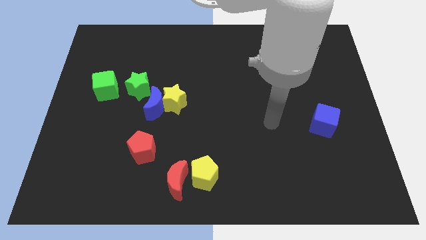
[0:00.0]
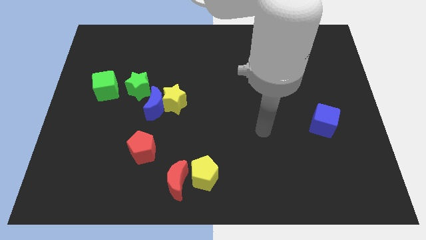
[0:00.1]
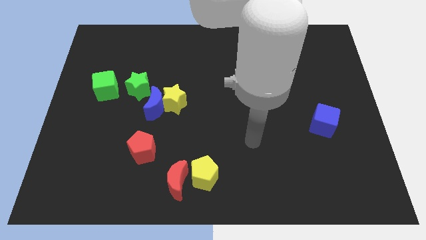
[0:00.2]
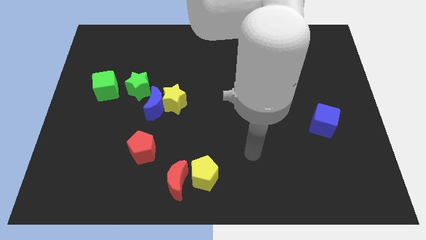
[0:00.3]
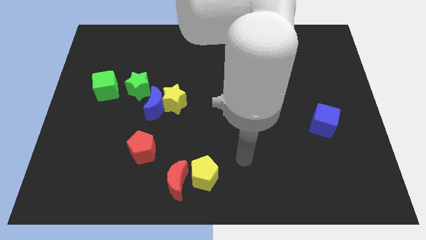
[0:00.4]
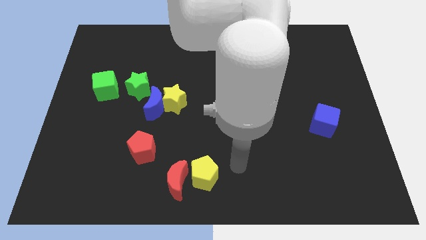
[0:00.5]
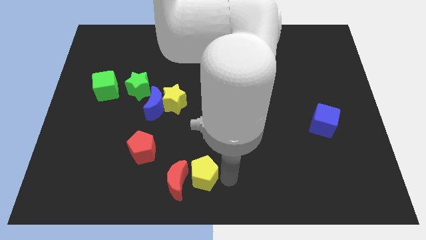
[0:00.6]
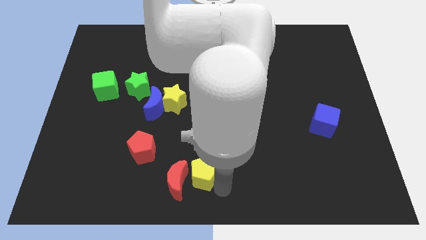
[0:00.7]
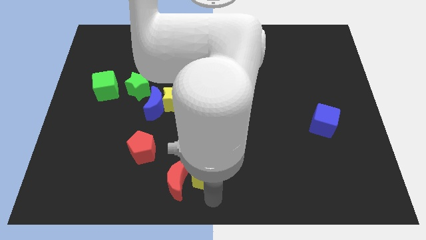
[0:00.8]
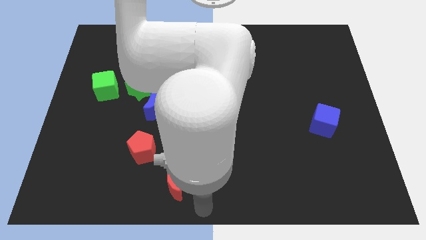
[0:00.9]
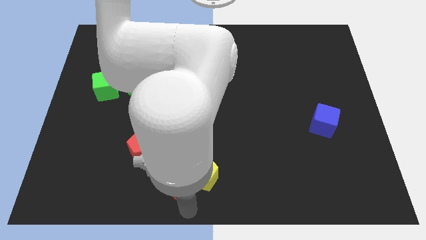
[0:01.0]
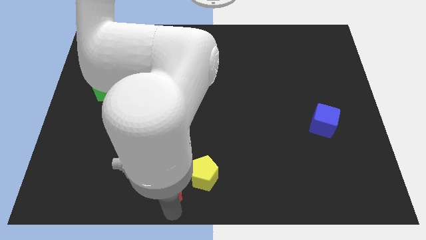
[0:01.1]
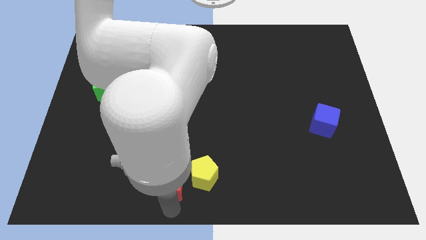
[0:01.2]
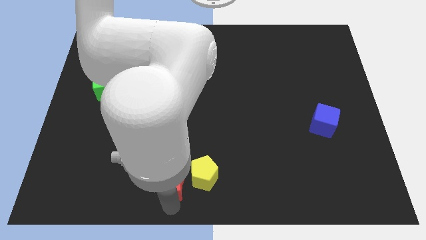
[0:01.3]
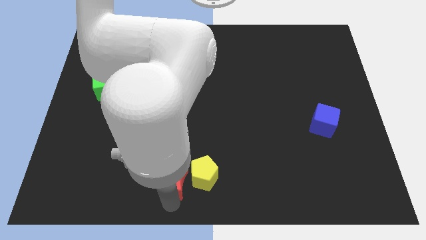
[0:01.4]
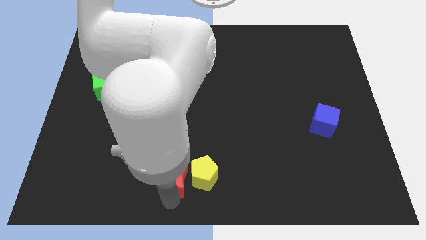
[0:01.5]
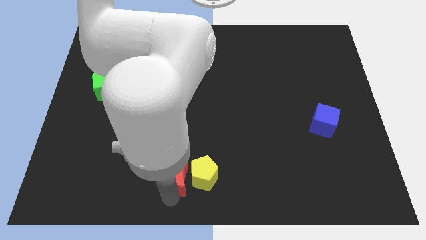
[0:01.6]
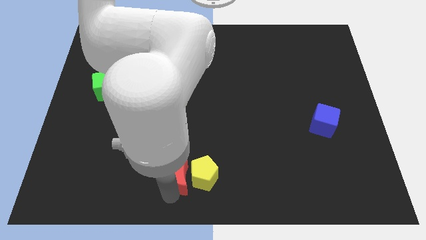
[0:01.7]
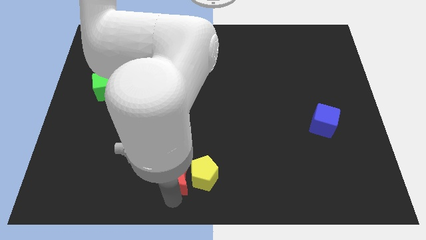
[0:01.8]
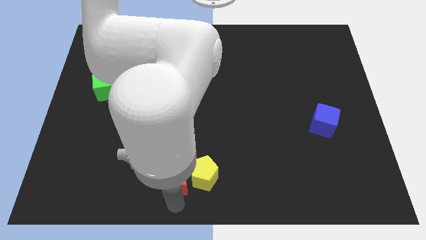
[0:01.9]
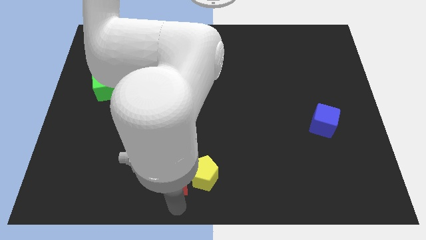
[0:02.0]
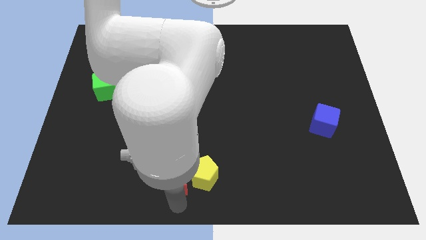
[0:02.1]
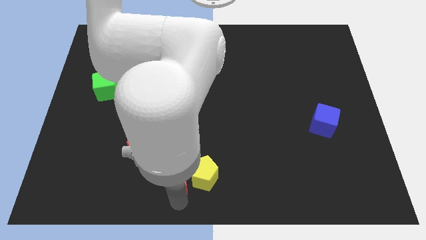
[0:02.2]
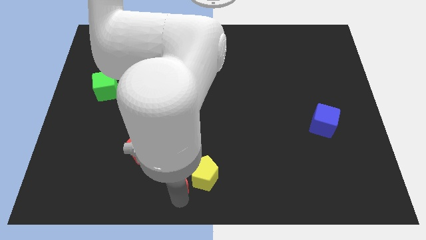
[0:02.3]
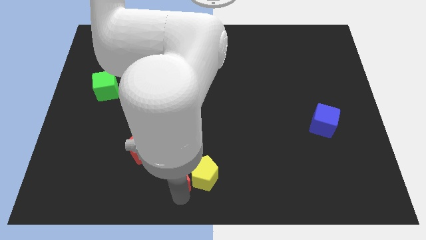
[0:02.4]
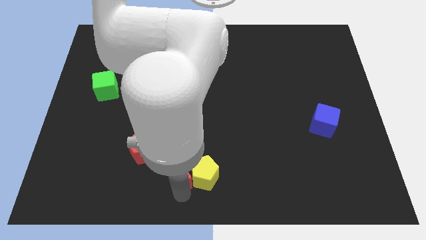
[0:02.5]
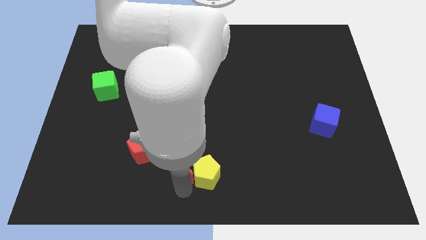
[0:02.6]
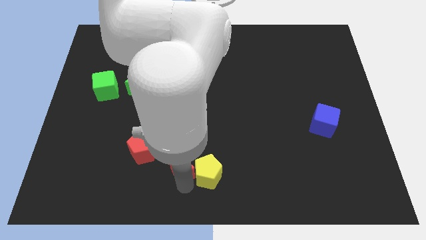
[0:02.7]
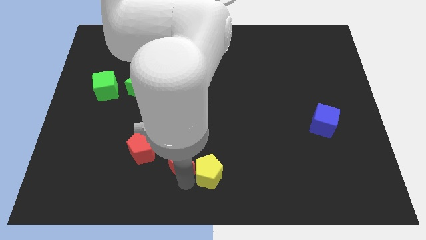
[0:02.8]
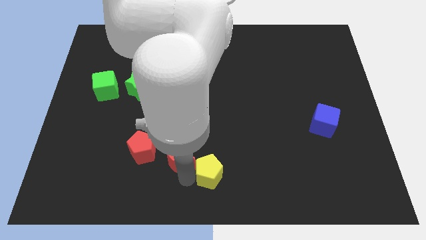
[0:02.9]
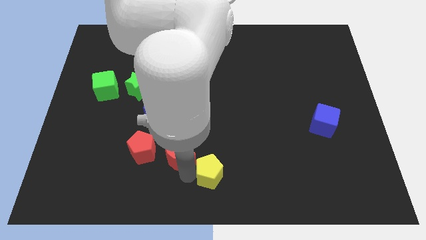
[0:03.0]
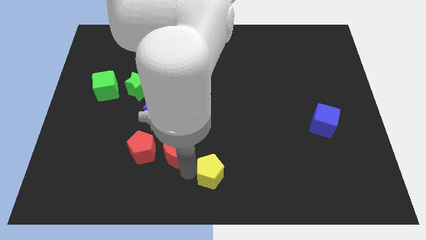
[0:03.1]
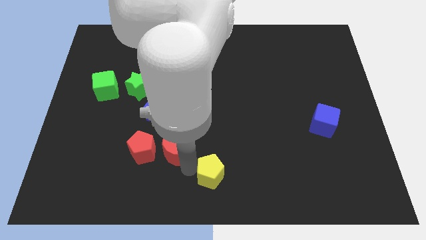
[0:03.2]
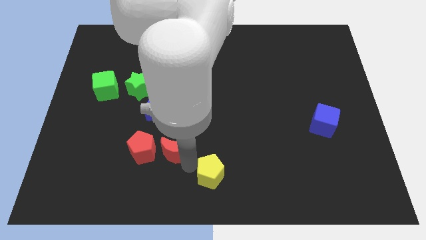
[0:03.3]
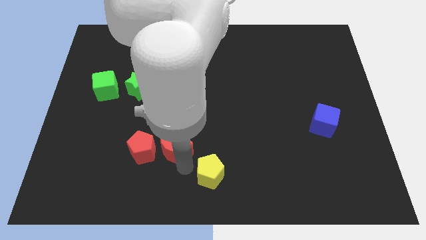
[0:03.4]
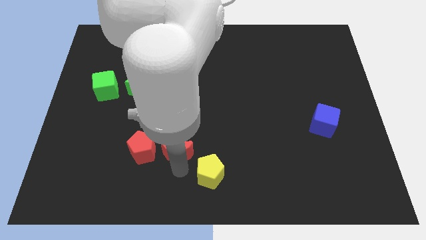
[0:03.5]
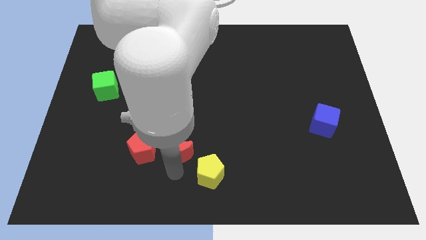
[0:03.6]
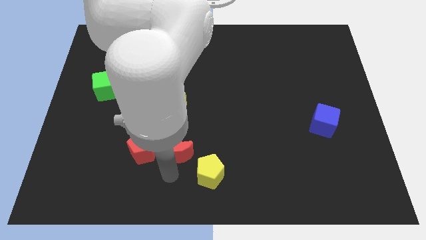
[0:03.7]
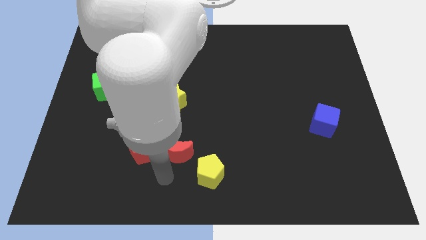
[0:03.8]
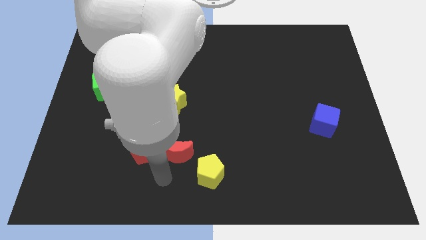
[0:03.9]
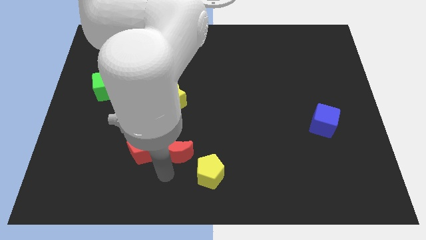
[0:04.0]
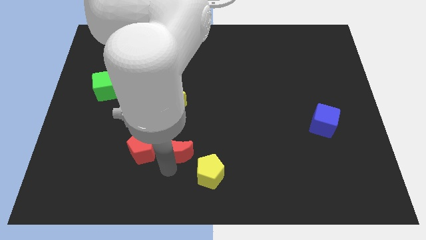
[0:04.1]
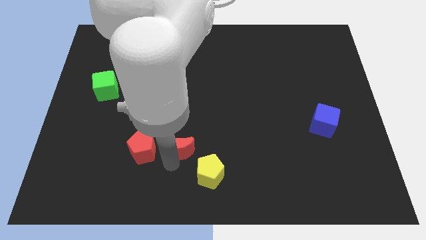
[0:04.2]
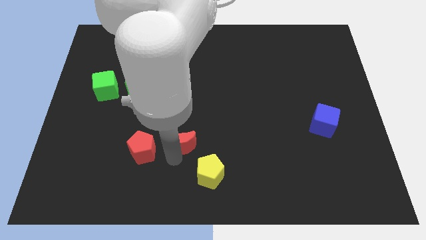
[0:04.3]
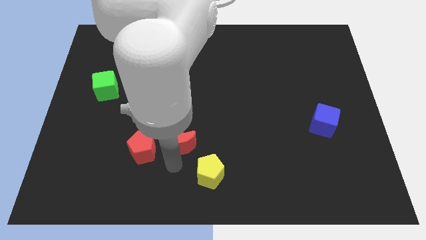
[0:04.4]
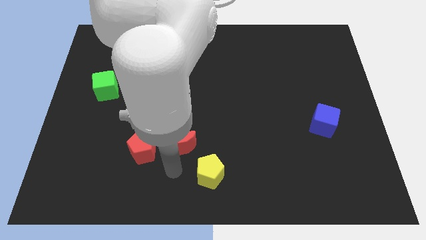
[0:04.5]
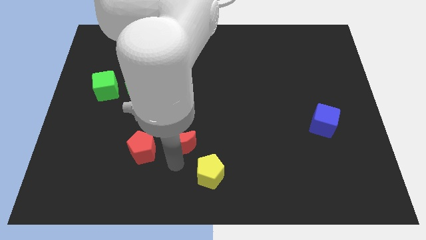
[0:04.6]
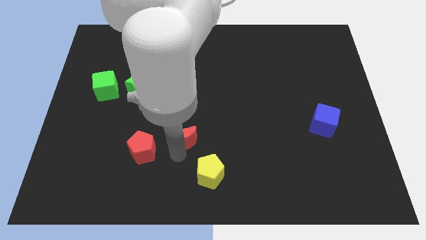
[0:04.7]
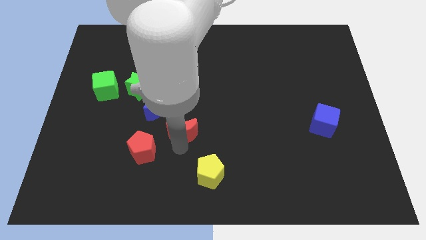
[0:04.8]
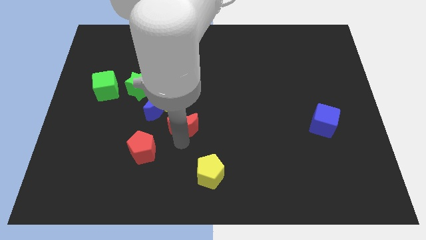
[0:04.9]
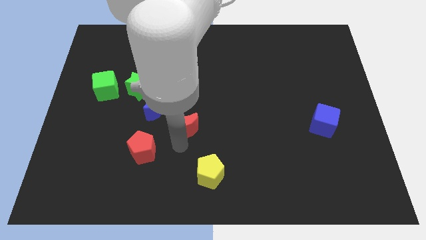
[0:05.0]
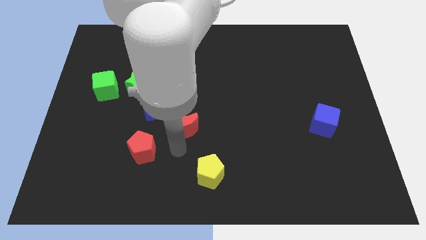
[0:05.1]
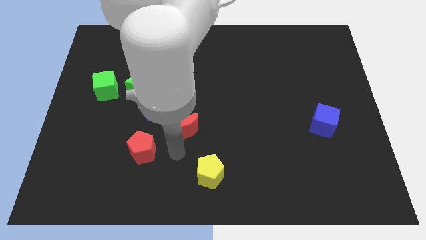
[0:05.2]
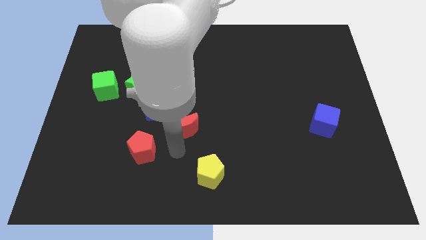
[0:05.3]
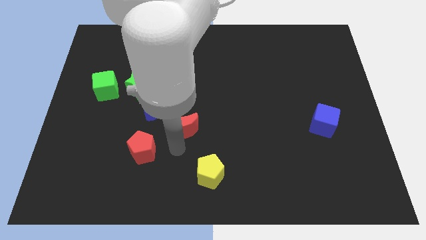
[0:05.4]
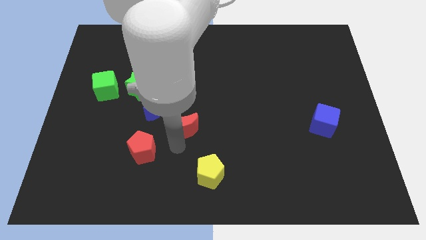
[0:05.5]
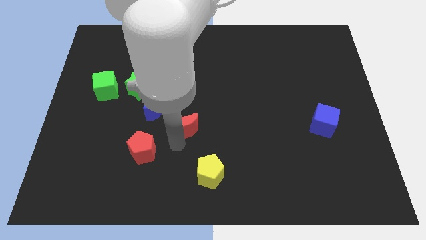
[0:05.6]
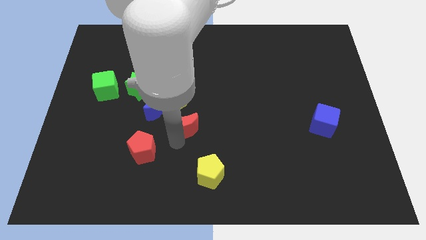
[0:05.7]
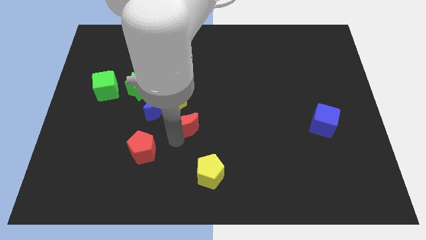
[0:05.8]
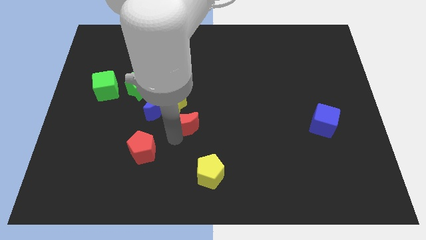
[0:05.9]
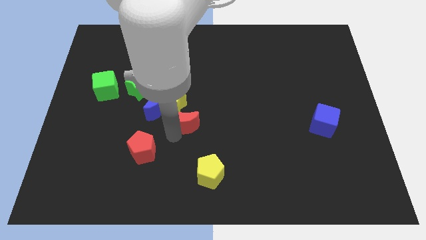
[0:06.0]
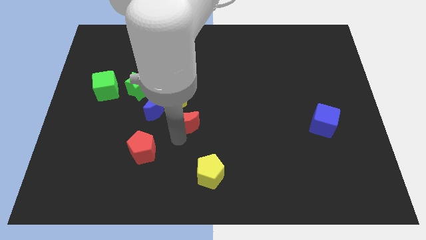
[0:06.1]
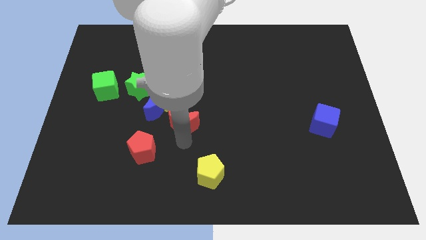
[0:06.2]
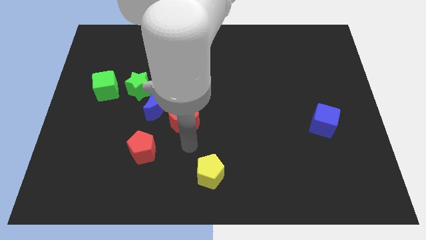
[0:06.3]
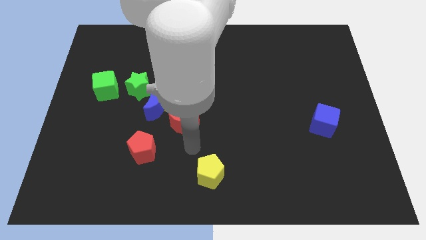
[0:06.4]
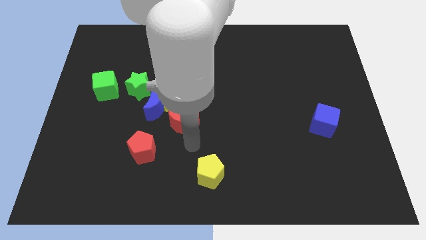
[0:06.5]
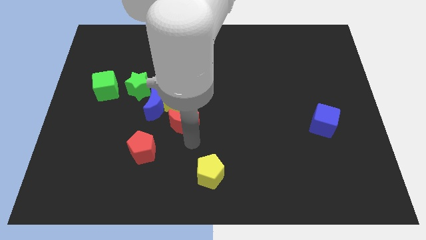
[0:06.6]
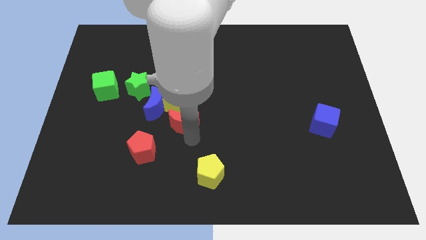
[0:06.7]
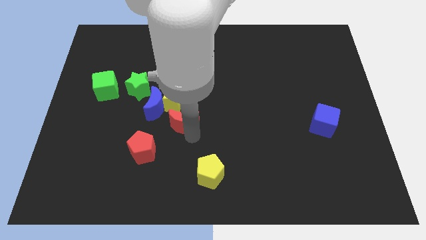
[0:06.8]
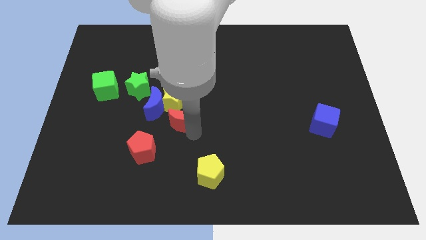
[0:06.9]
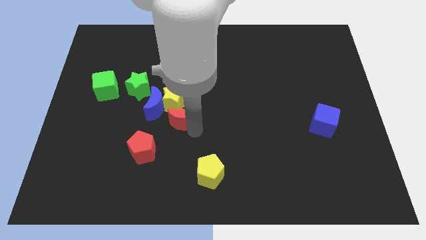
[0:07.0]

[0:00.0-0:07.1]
slide the red moon close to the yellow star
